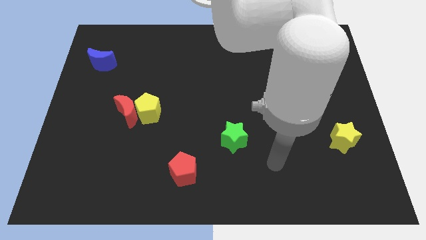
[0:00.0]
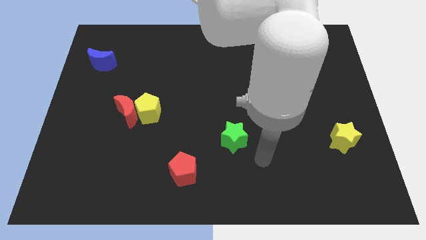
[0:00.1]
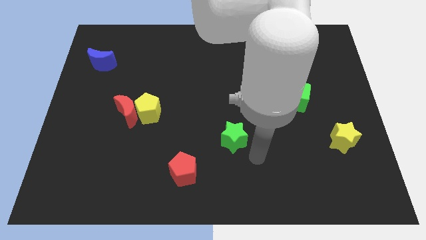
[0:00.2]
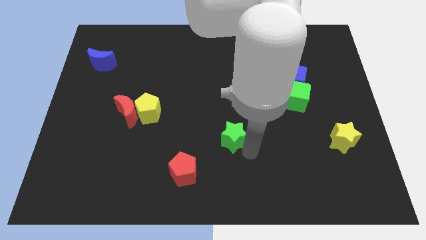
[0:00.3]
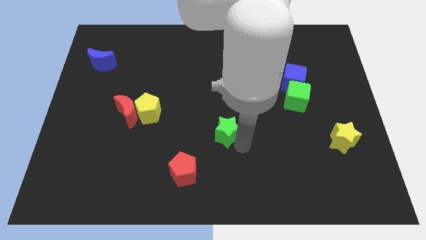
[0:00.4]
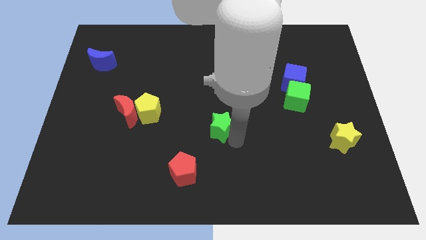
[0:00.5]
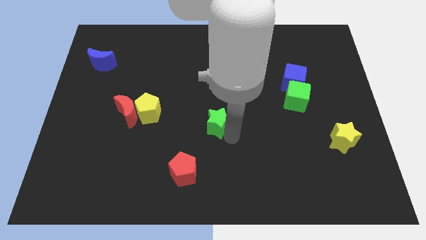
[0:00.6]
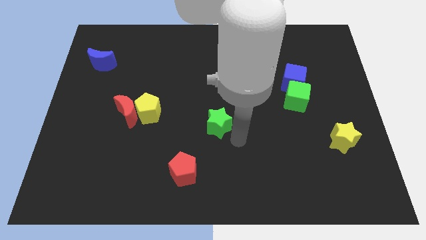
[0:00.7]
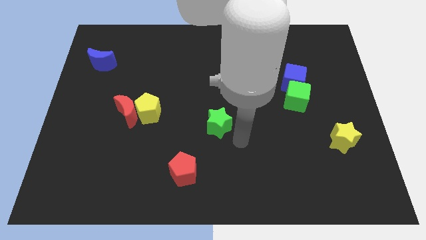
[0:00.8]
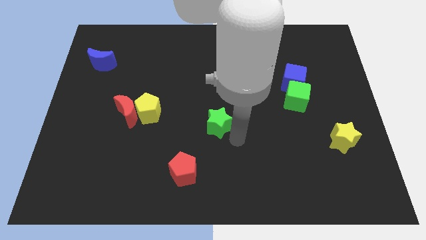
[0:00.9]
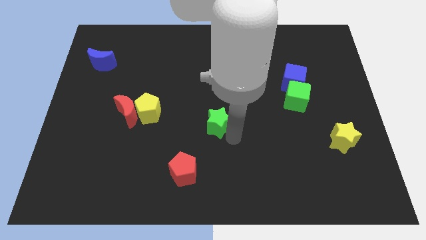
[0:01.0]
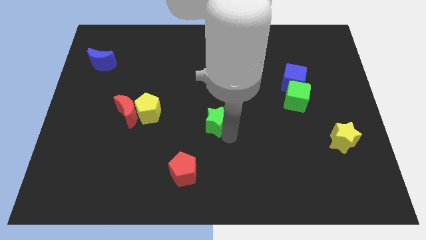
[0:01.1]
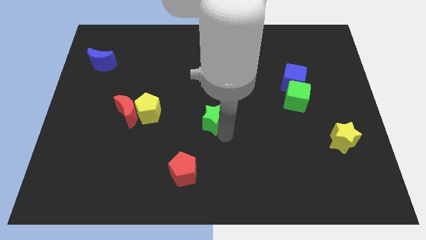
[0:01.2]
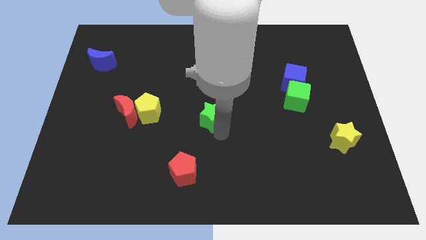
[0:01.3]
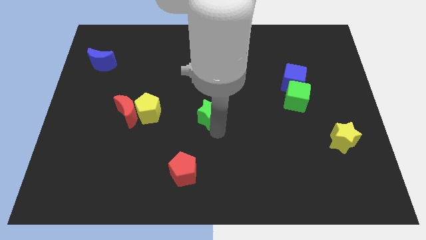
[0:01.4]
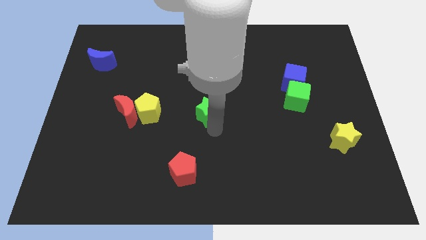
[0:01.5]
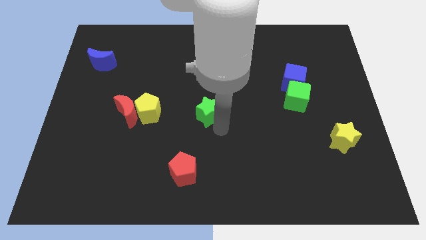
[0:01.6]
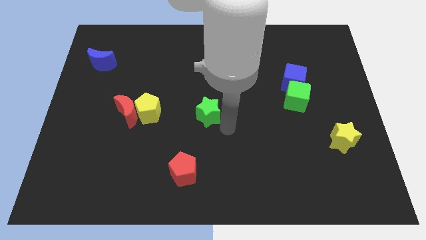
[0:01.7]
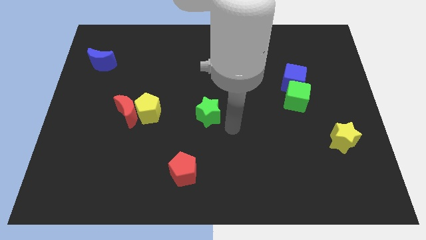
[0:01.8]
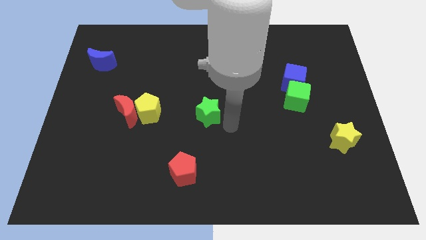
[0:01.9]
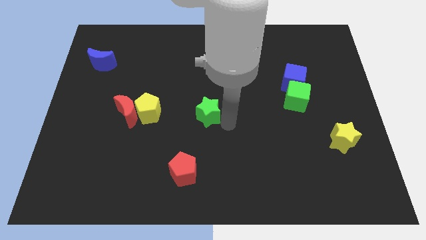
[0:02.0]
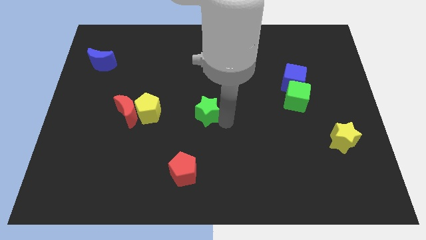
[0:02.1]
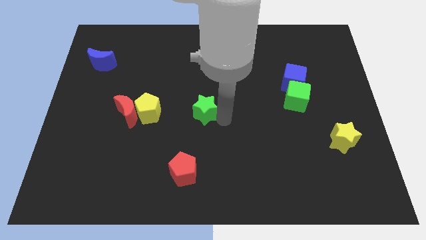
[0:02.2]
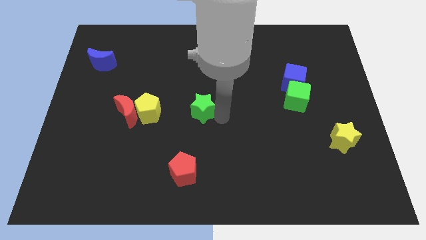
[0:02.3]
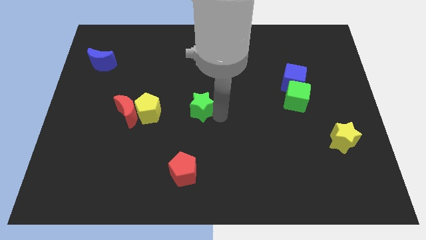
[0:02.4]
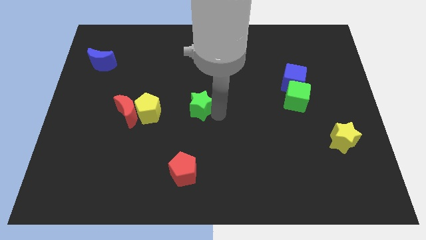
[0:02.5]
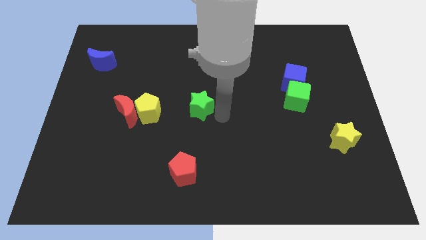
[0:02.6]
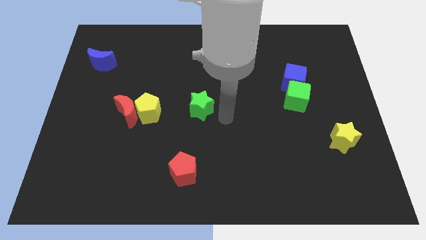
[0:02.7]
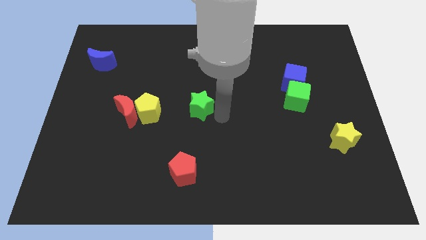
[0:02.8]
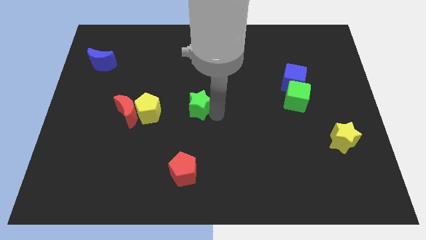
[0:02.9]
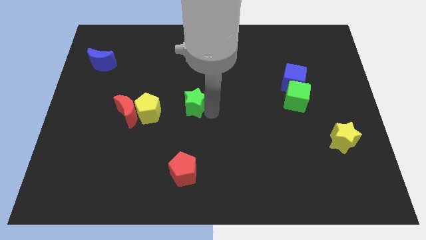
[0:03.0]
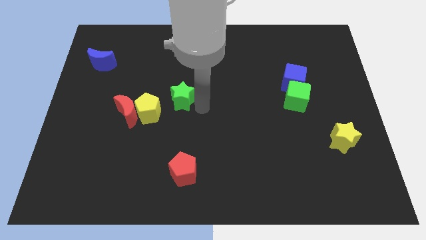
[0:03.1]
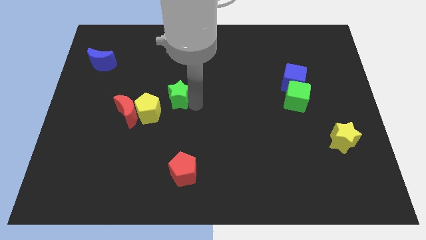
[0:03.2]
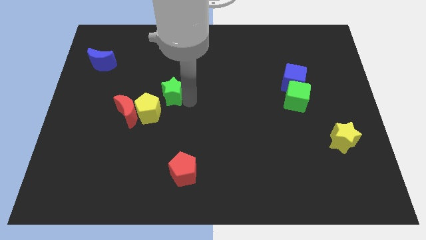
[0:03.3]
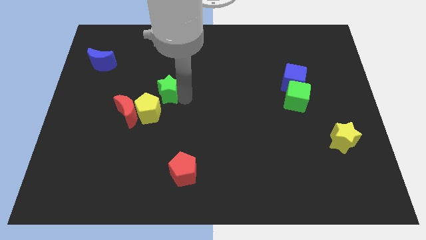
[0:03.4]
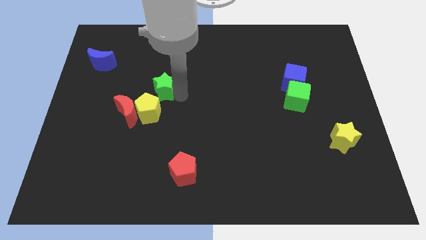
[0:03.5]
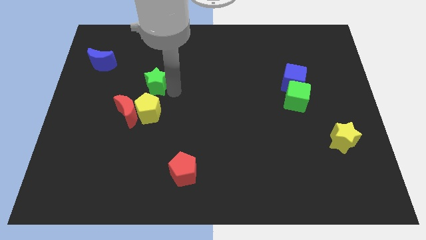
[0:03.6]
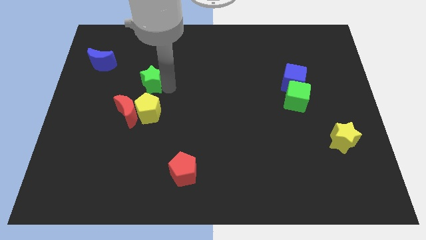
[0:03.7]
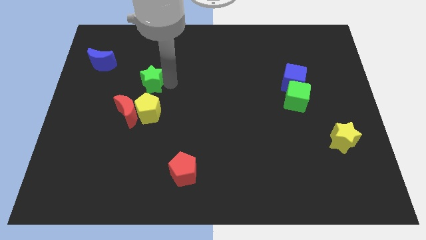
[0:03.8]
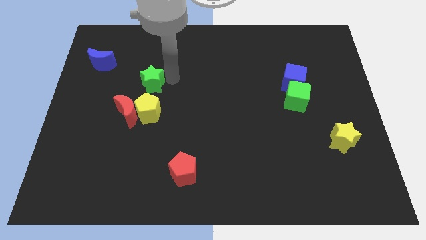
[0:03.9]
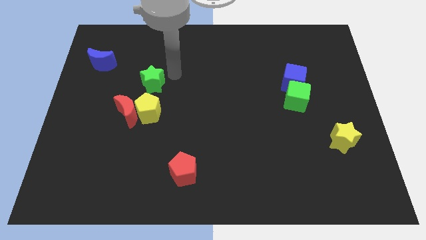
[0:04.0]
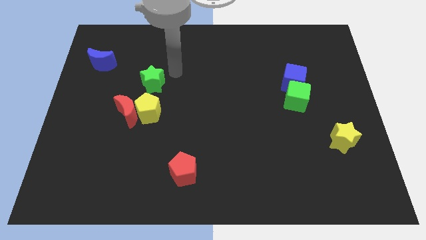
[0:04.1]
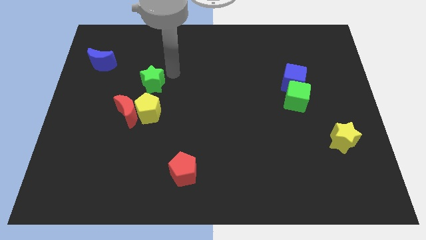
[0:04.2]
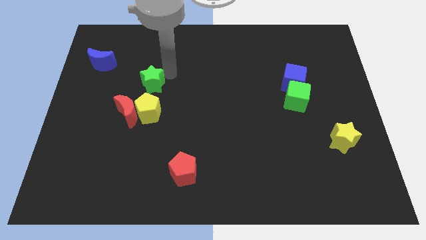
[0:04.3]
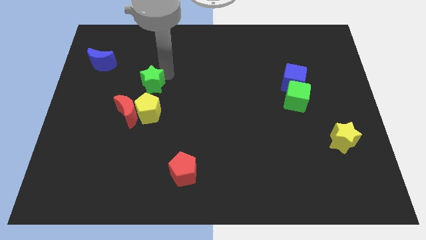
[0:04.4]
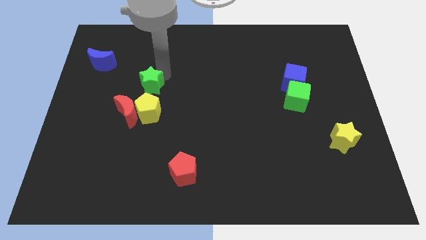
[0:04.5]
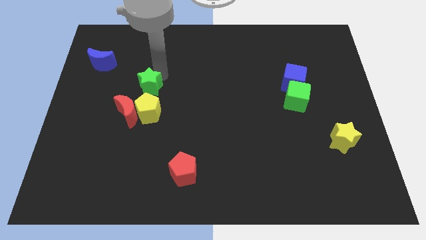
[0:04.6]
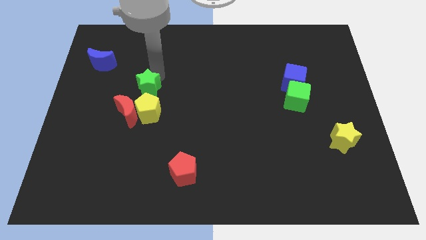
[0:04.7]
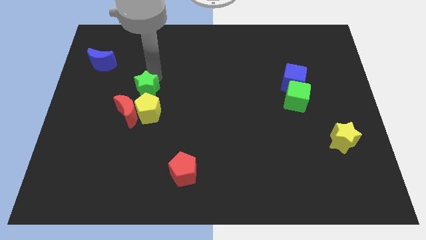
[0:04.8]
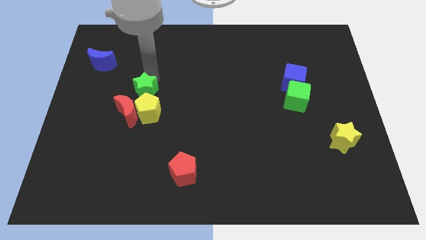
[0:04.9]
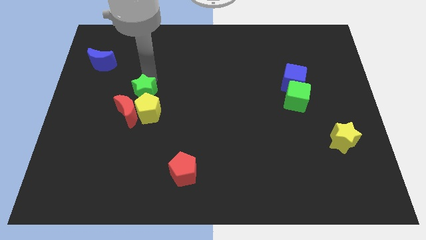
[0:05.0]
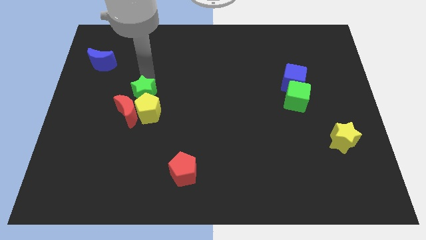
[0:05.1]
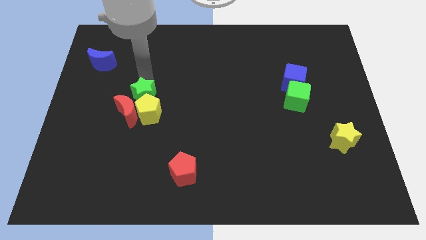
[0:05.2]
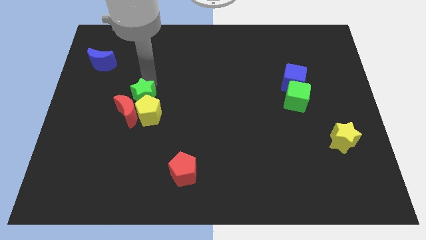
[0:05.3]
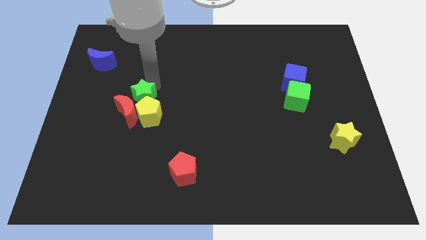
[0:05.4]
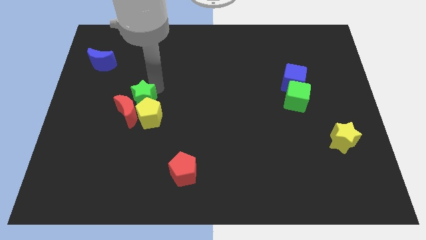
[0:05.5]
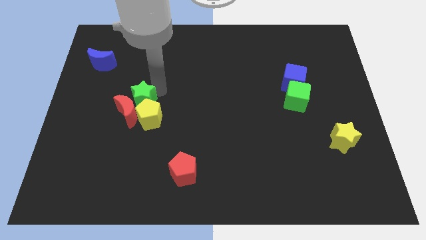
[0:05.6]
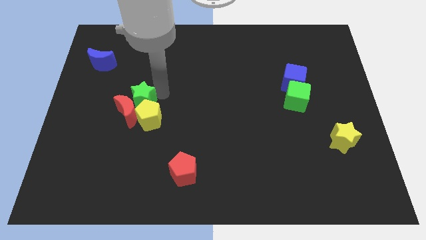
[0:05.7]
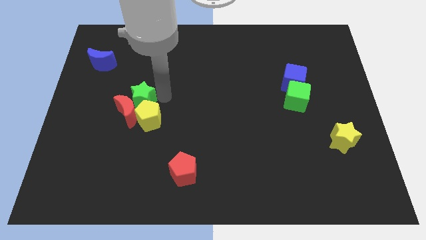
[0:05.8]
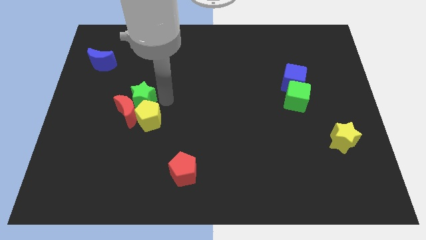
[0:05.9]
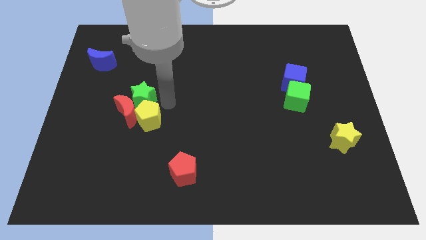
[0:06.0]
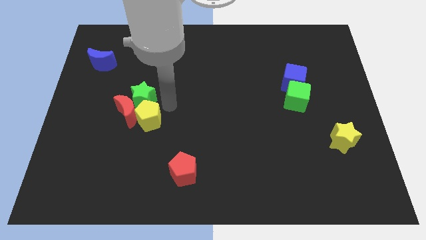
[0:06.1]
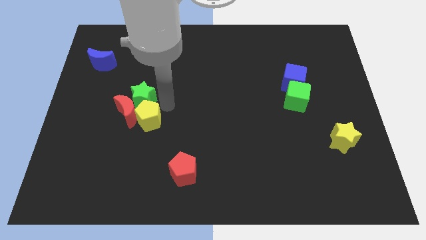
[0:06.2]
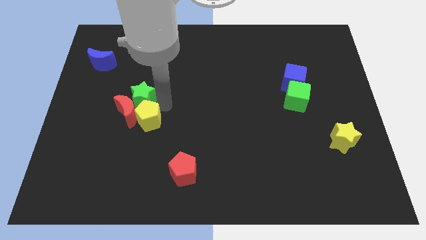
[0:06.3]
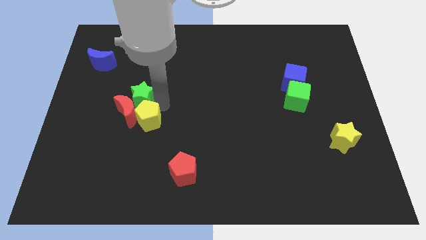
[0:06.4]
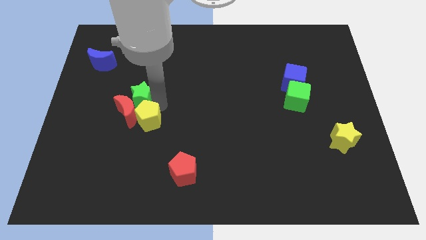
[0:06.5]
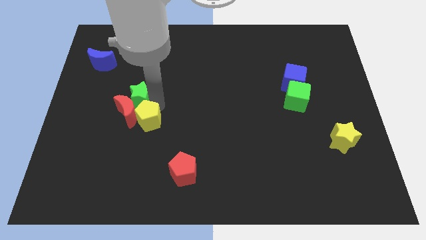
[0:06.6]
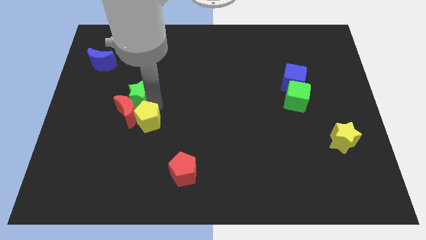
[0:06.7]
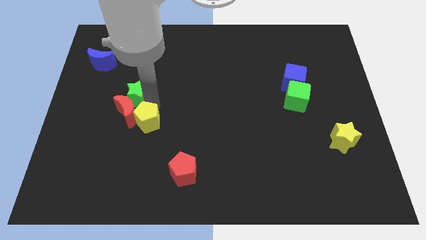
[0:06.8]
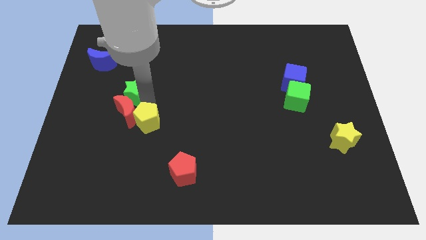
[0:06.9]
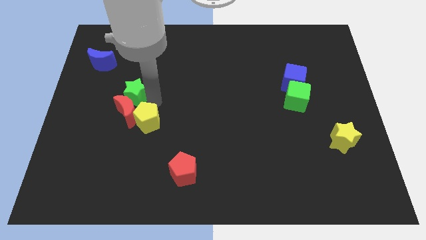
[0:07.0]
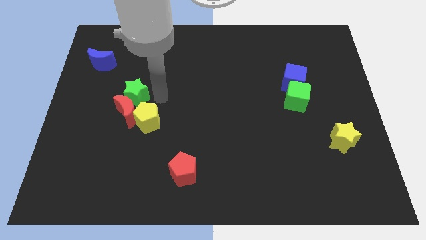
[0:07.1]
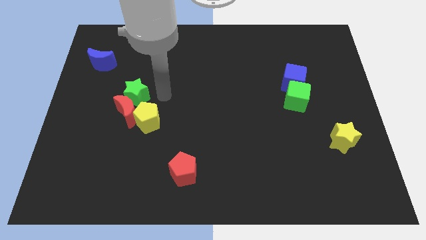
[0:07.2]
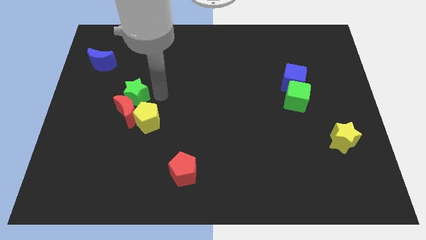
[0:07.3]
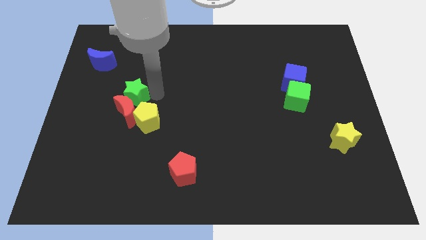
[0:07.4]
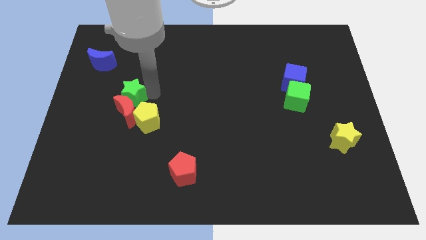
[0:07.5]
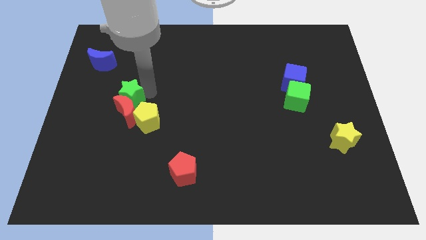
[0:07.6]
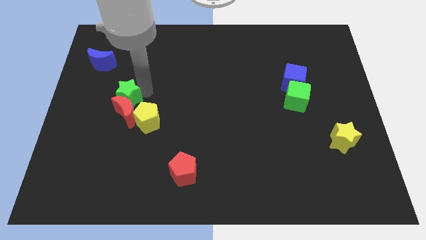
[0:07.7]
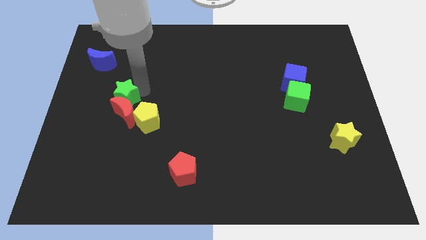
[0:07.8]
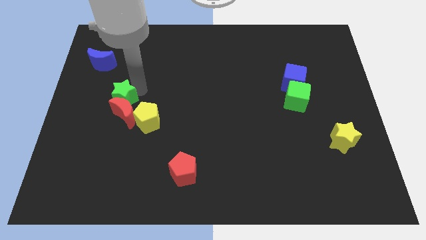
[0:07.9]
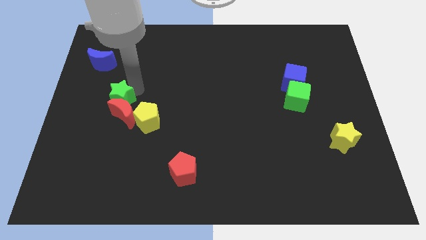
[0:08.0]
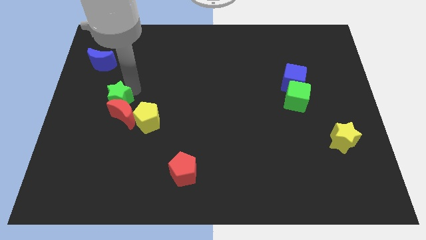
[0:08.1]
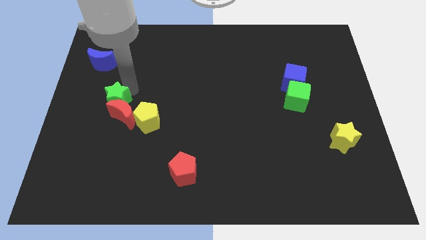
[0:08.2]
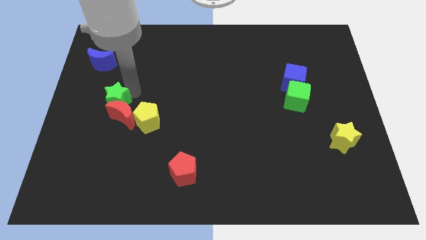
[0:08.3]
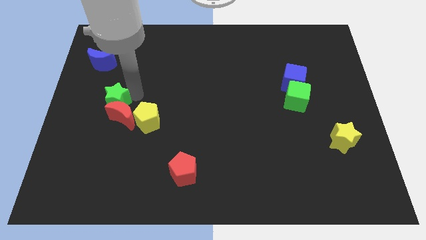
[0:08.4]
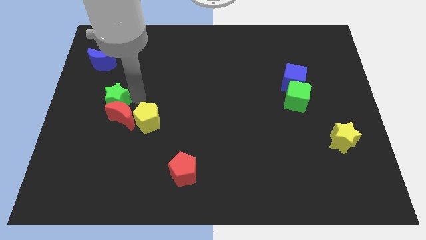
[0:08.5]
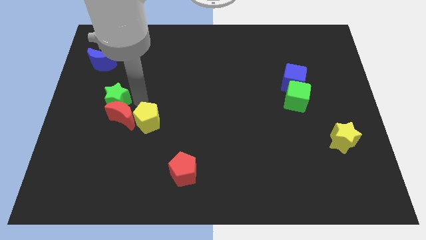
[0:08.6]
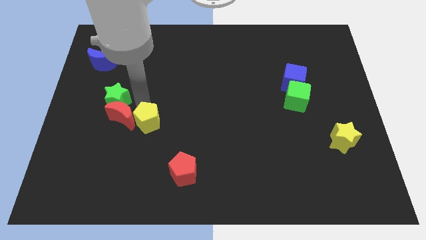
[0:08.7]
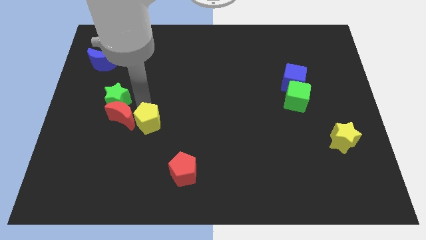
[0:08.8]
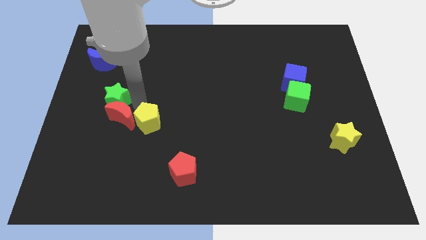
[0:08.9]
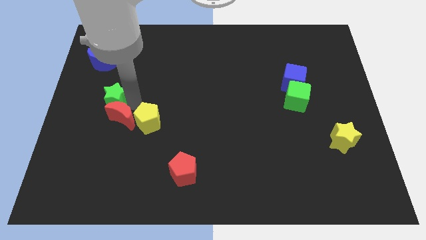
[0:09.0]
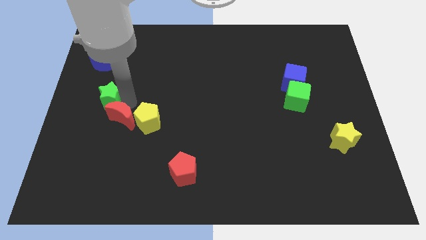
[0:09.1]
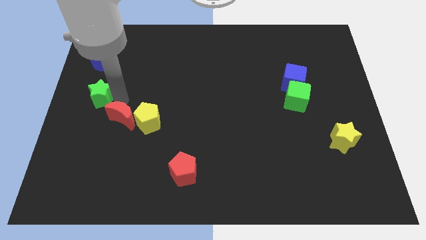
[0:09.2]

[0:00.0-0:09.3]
push the green star to the left side
